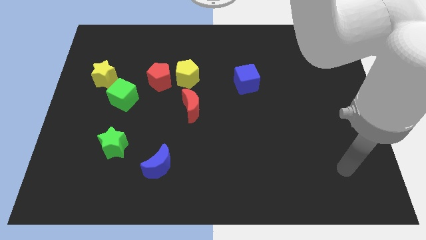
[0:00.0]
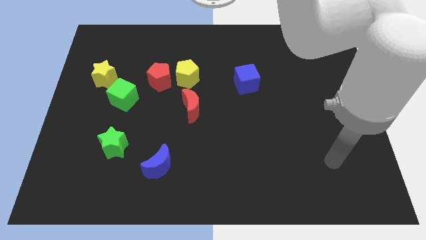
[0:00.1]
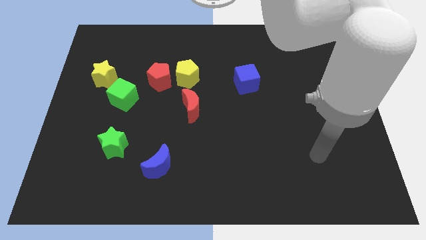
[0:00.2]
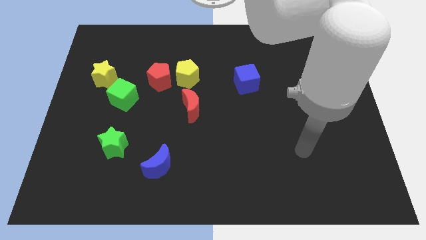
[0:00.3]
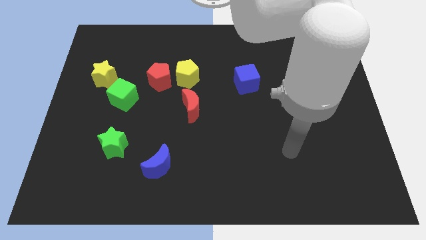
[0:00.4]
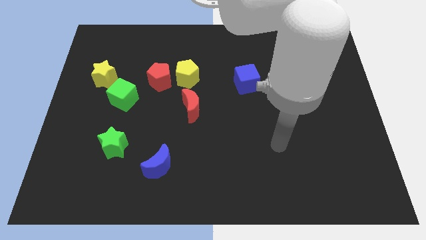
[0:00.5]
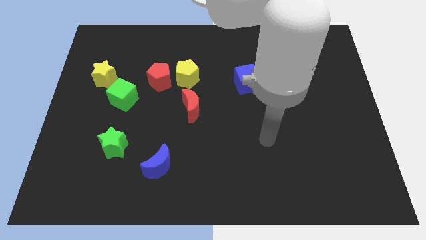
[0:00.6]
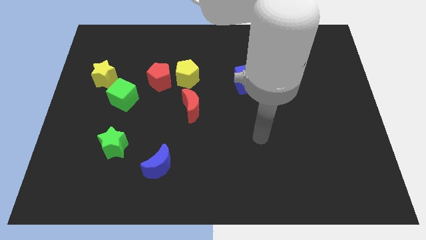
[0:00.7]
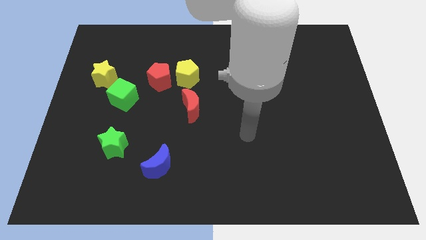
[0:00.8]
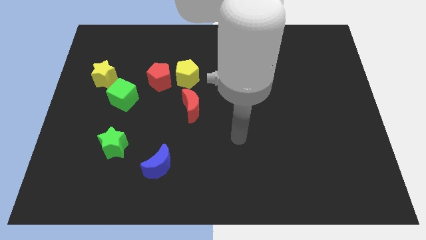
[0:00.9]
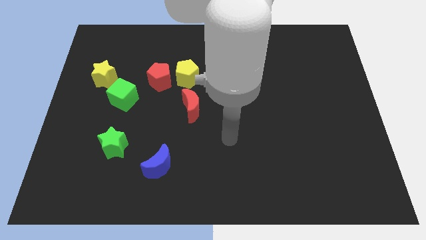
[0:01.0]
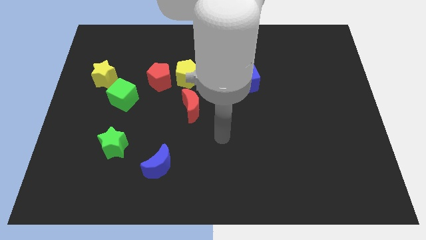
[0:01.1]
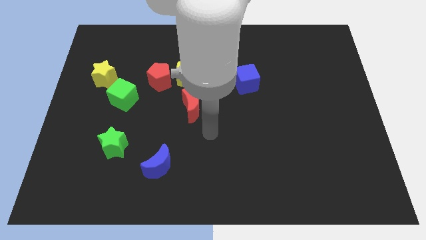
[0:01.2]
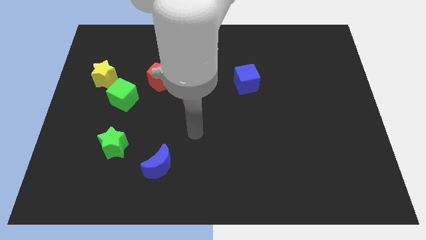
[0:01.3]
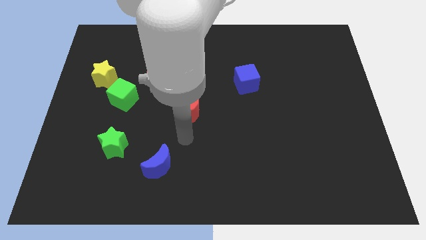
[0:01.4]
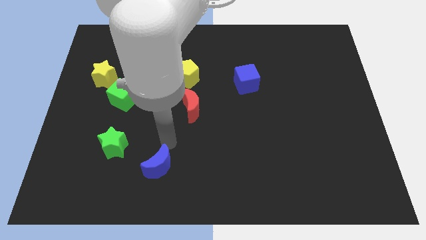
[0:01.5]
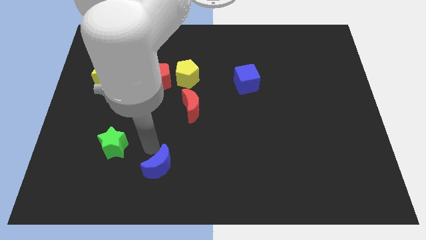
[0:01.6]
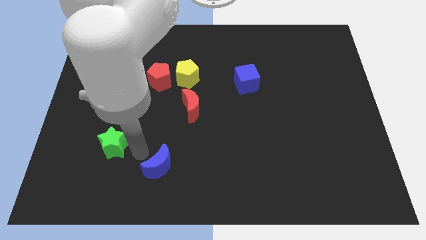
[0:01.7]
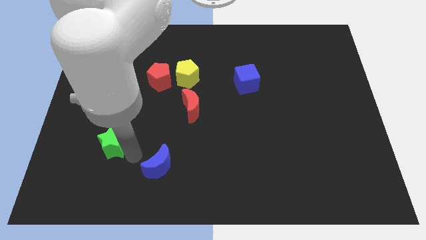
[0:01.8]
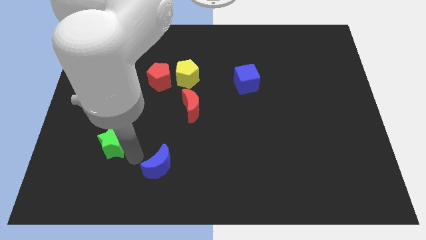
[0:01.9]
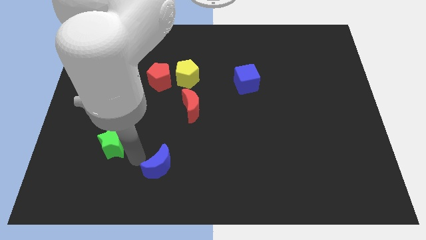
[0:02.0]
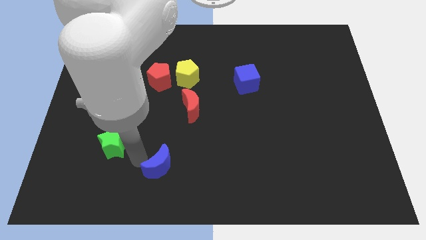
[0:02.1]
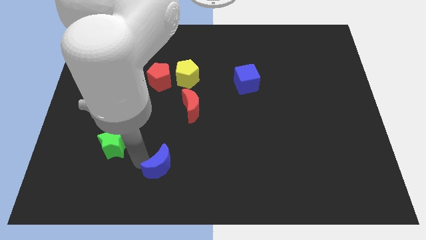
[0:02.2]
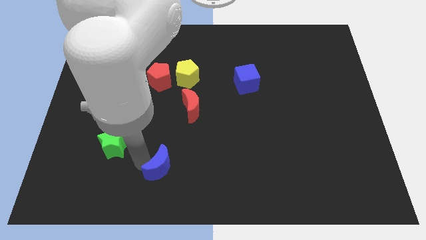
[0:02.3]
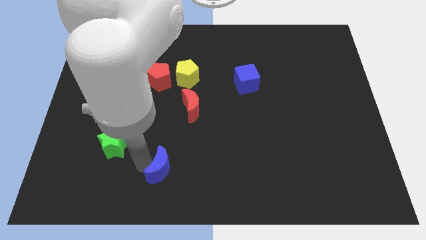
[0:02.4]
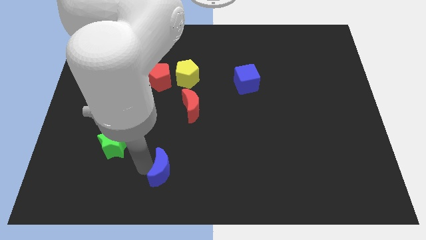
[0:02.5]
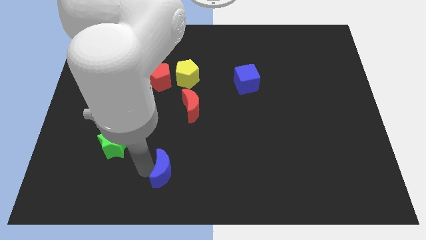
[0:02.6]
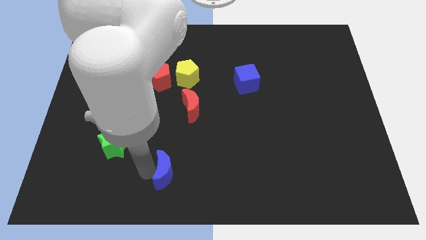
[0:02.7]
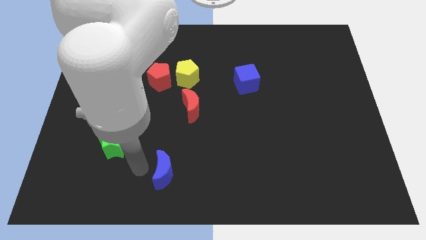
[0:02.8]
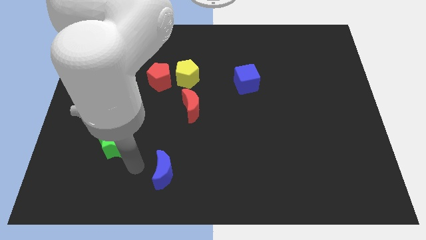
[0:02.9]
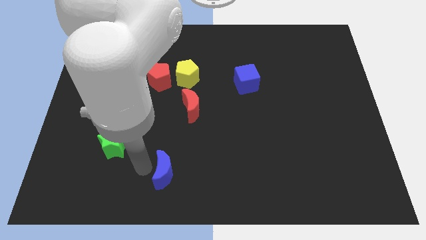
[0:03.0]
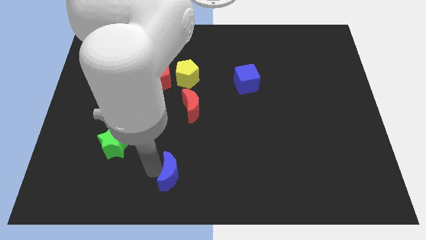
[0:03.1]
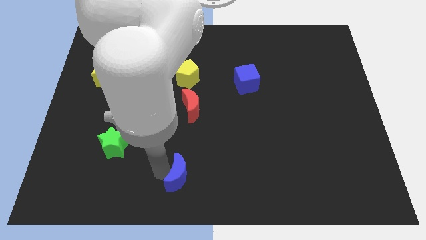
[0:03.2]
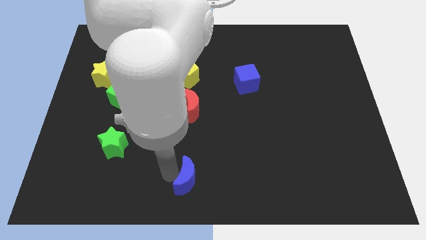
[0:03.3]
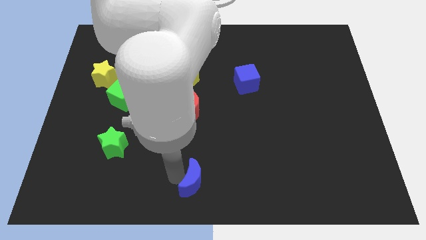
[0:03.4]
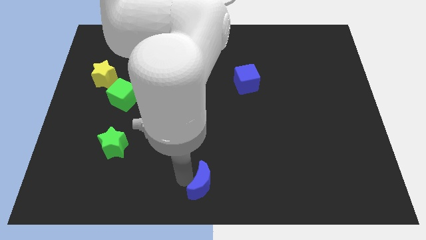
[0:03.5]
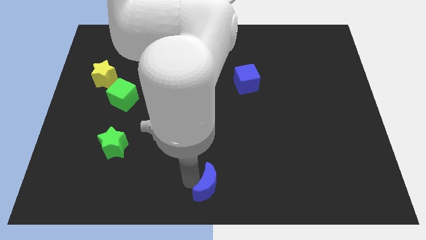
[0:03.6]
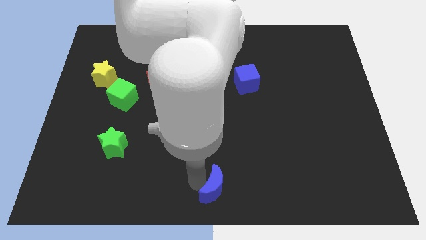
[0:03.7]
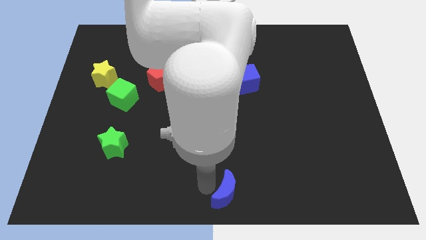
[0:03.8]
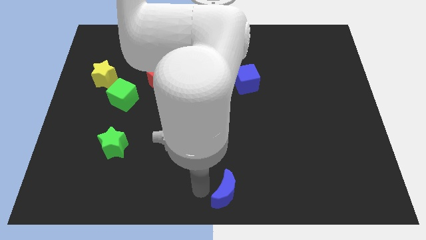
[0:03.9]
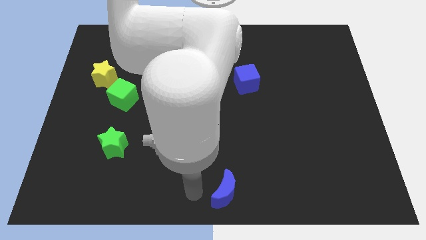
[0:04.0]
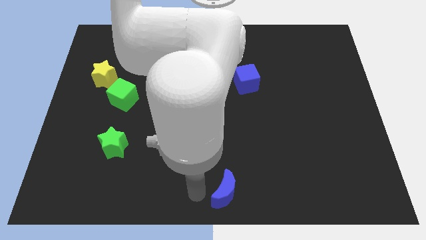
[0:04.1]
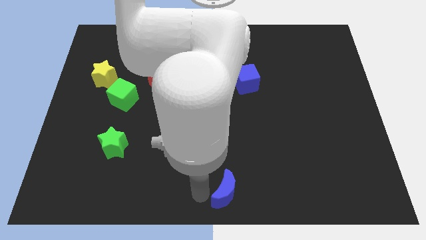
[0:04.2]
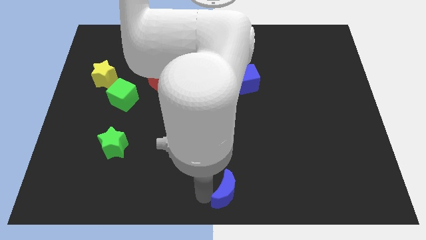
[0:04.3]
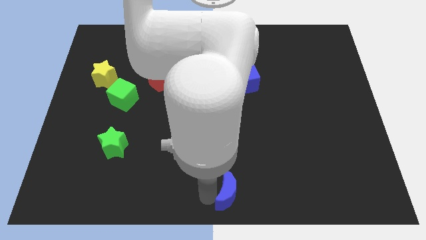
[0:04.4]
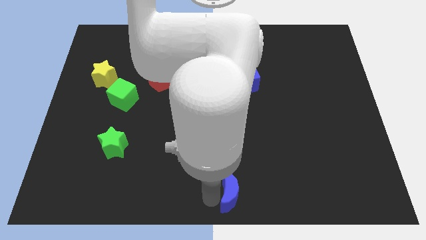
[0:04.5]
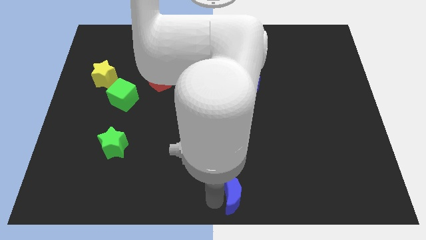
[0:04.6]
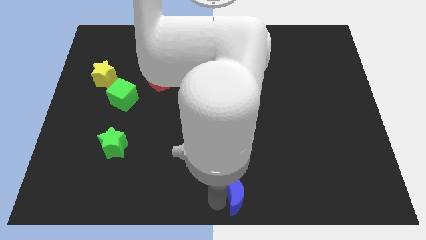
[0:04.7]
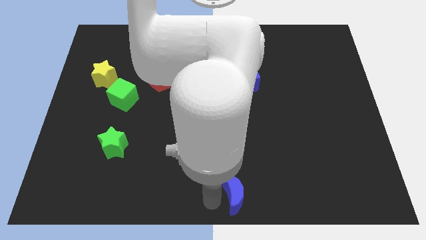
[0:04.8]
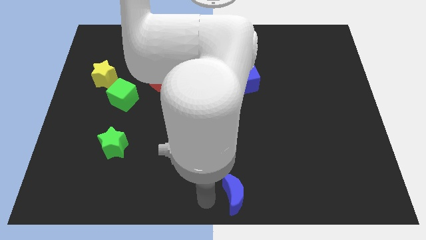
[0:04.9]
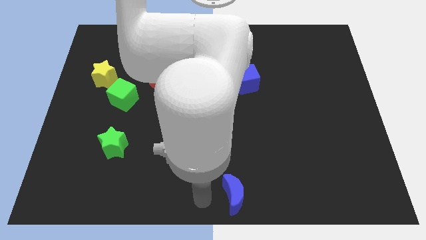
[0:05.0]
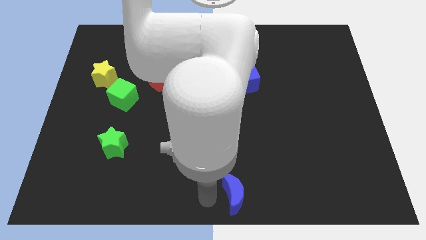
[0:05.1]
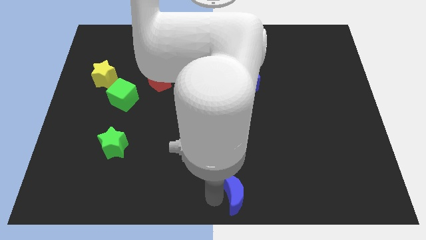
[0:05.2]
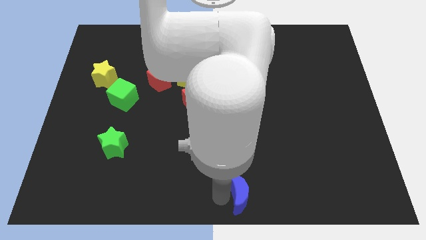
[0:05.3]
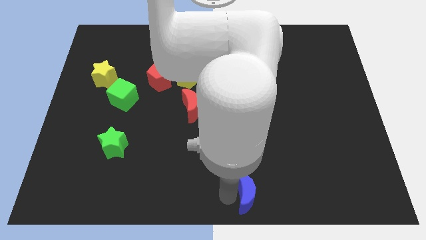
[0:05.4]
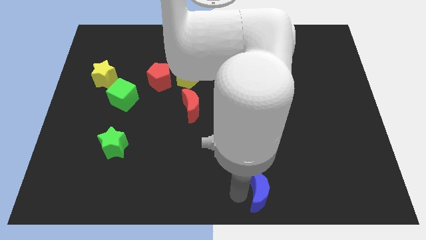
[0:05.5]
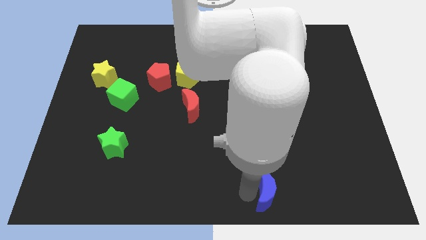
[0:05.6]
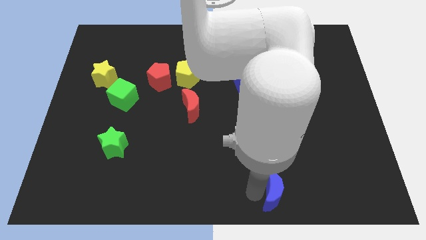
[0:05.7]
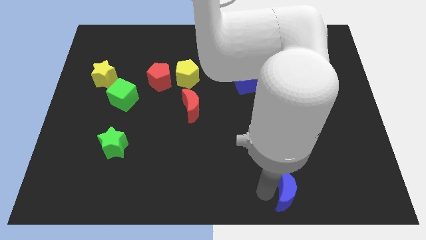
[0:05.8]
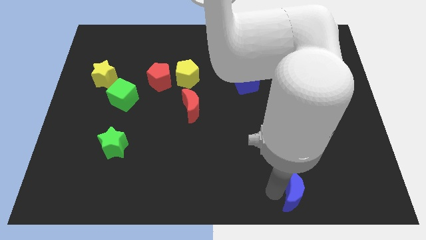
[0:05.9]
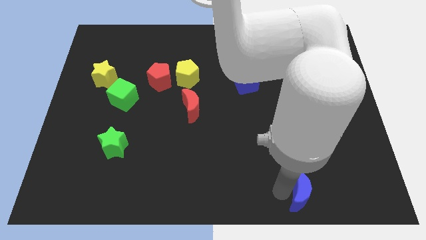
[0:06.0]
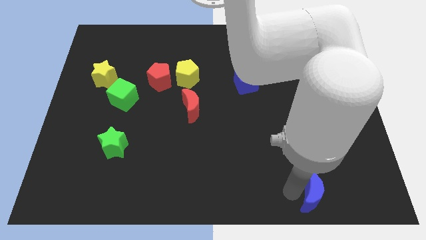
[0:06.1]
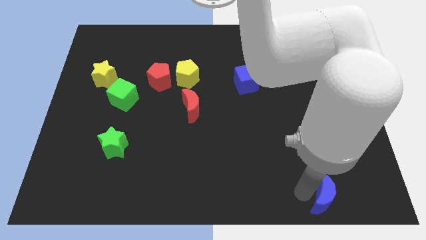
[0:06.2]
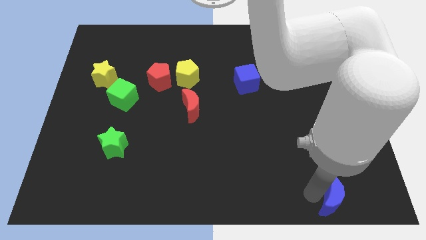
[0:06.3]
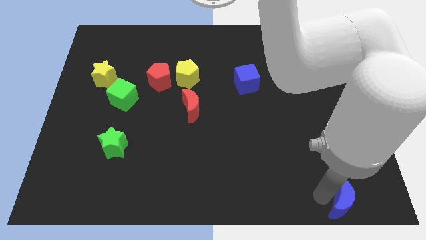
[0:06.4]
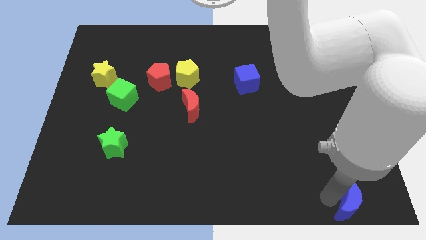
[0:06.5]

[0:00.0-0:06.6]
move the blue moon to the bottom right corner

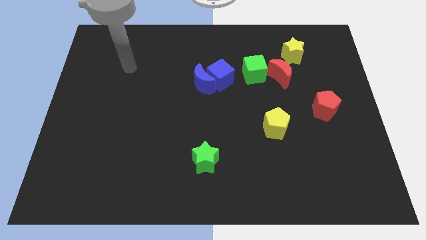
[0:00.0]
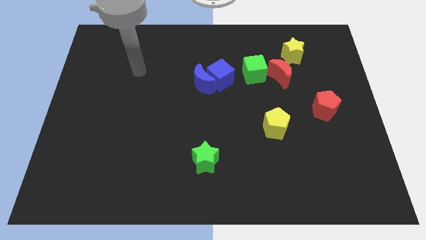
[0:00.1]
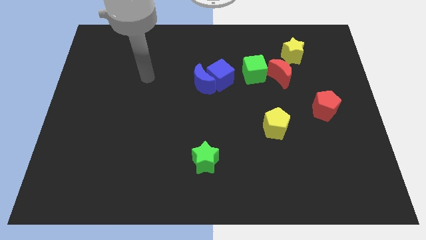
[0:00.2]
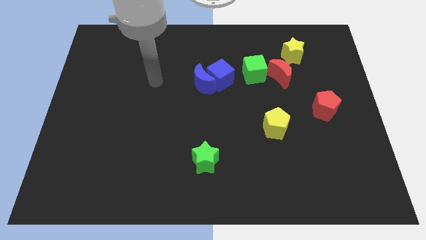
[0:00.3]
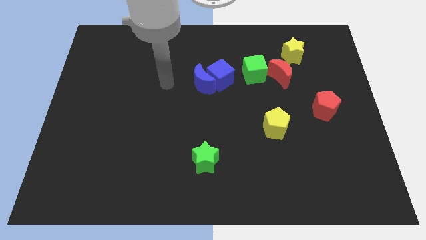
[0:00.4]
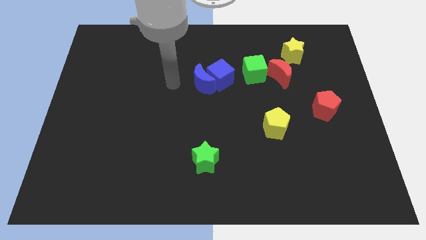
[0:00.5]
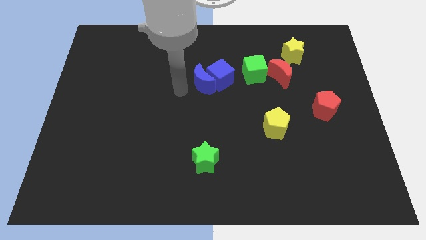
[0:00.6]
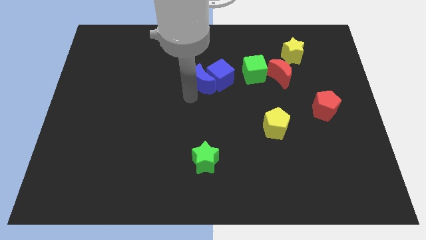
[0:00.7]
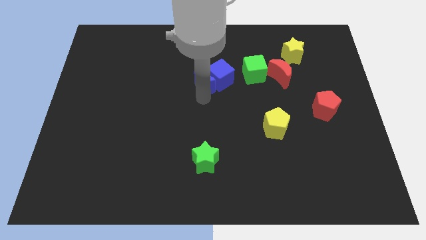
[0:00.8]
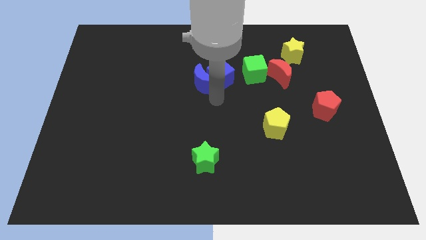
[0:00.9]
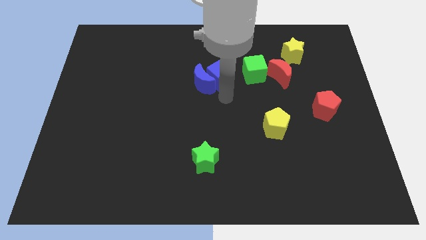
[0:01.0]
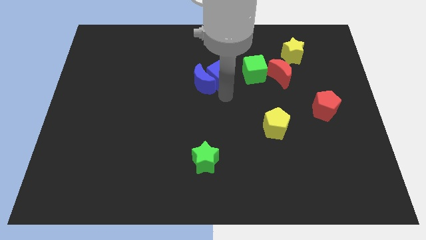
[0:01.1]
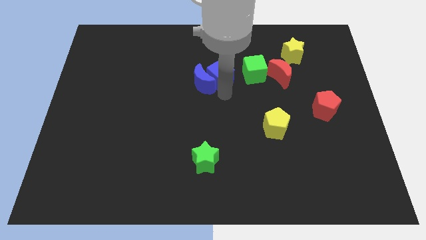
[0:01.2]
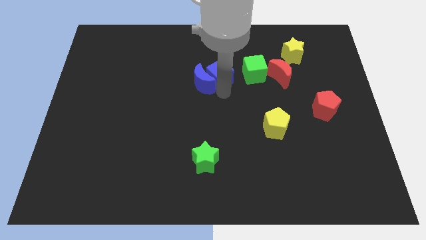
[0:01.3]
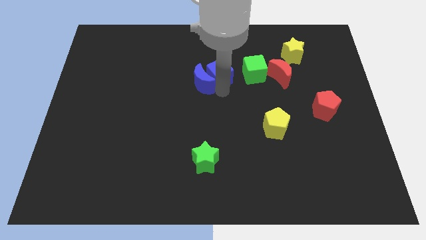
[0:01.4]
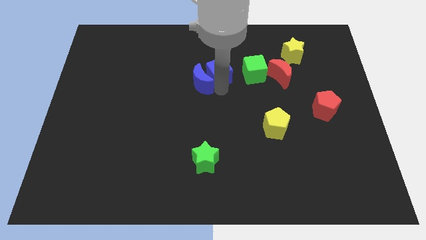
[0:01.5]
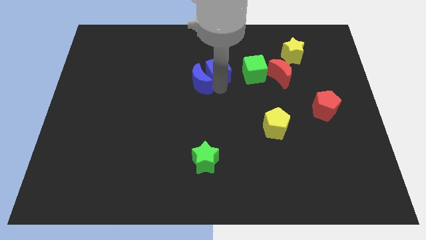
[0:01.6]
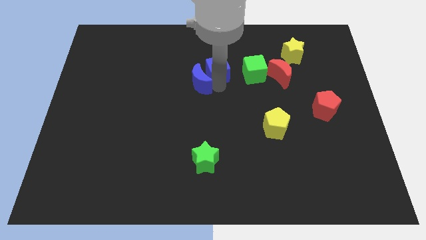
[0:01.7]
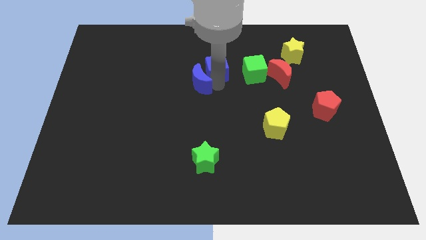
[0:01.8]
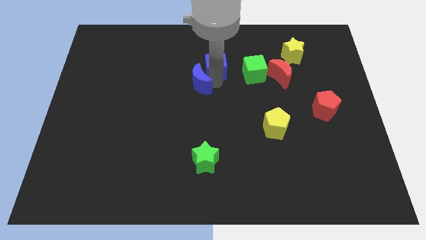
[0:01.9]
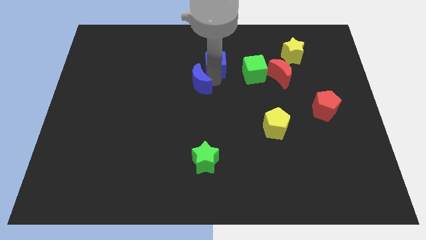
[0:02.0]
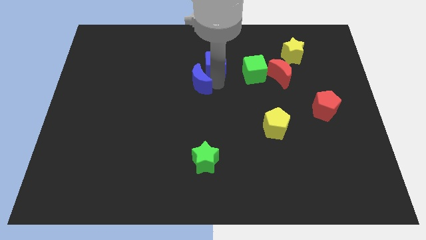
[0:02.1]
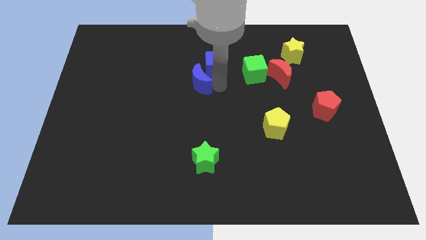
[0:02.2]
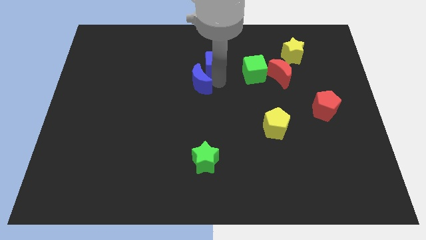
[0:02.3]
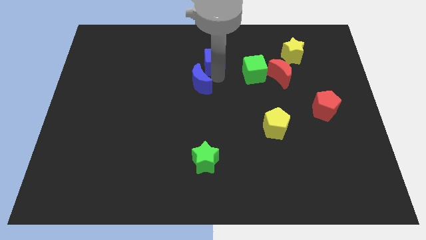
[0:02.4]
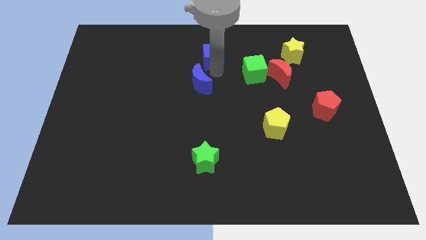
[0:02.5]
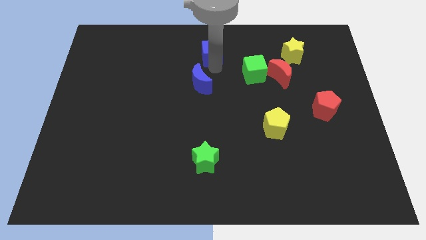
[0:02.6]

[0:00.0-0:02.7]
put the blue cube to the top side
